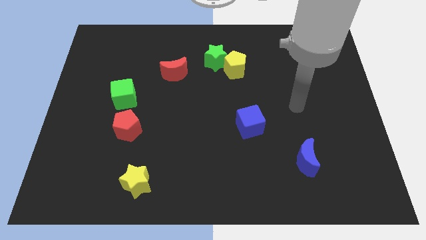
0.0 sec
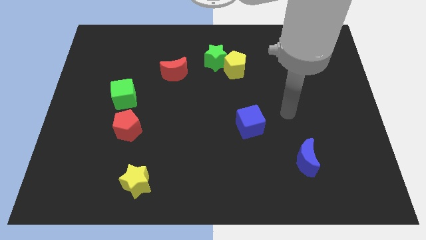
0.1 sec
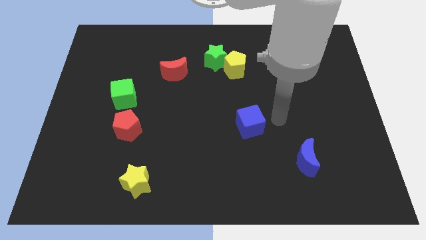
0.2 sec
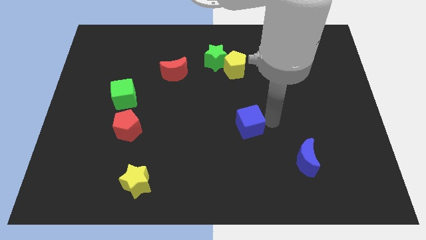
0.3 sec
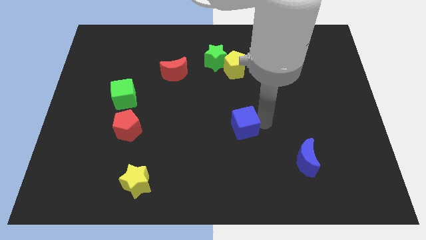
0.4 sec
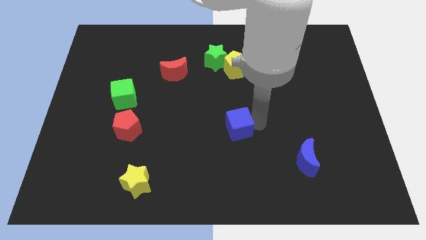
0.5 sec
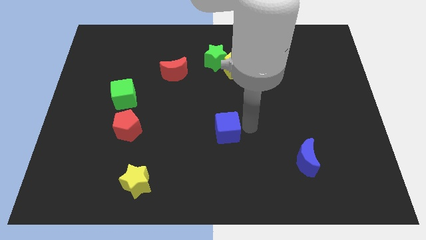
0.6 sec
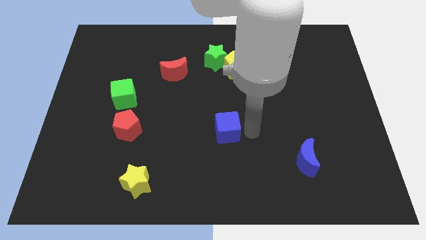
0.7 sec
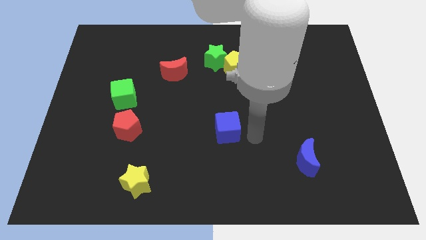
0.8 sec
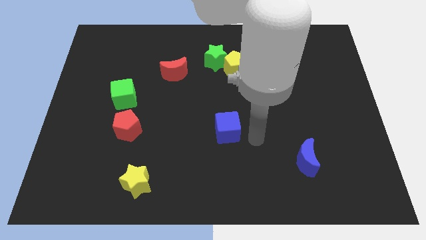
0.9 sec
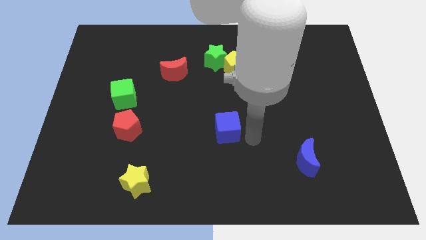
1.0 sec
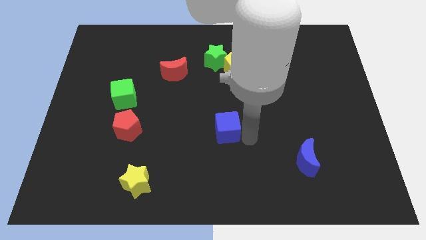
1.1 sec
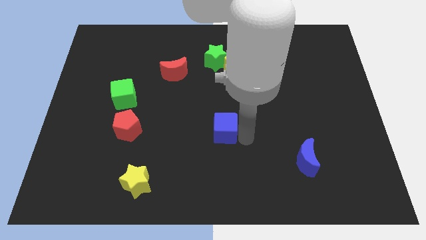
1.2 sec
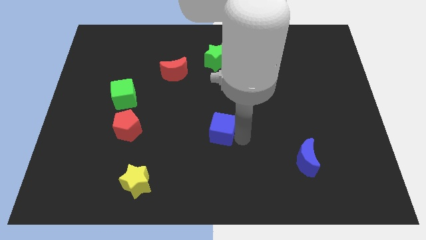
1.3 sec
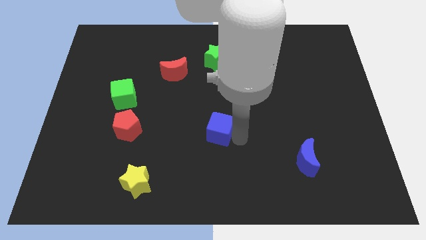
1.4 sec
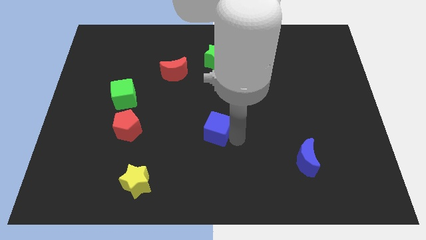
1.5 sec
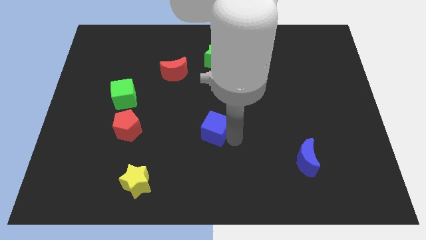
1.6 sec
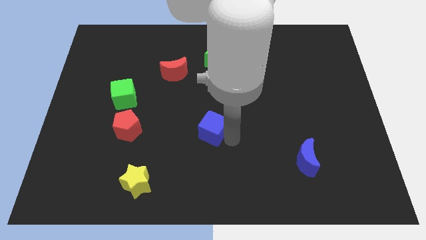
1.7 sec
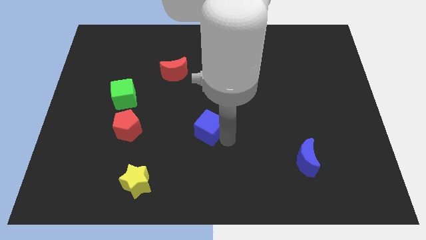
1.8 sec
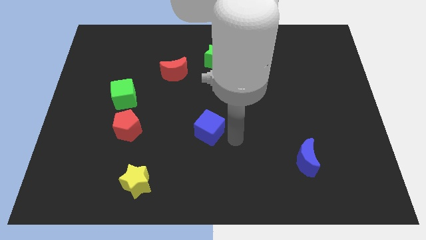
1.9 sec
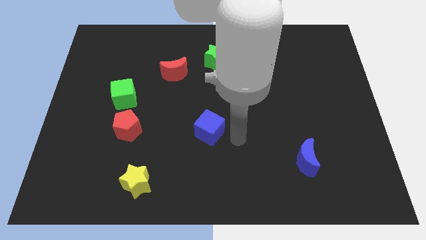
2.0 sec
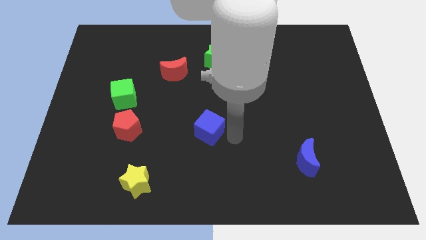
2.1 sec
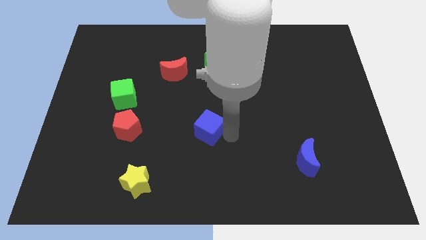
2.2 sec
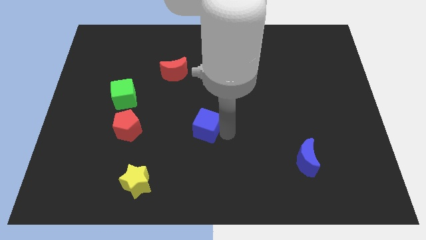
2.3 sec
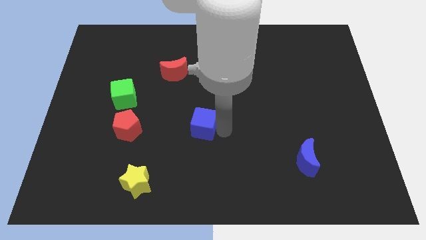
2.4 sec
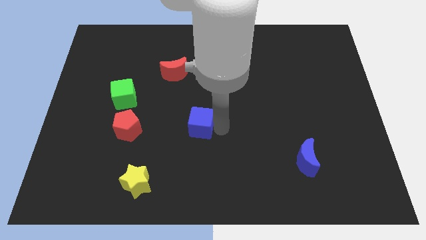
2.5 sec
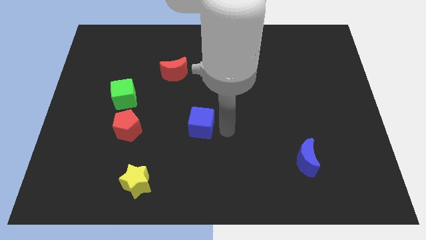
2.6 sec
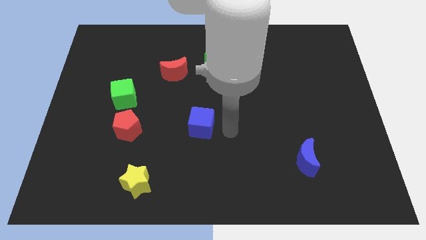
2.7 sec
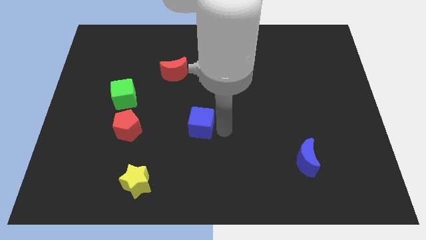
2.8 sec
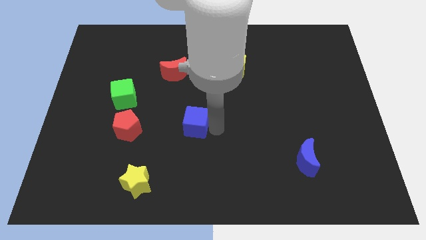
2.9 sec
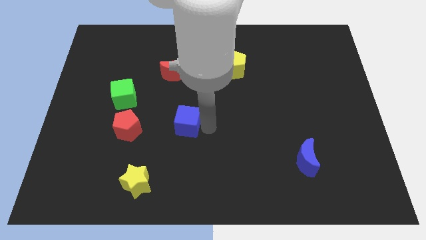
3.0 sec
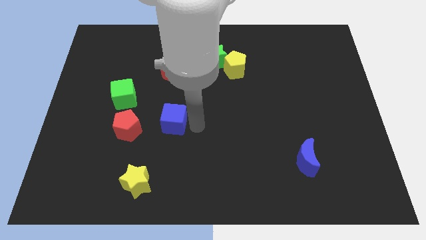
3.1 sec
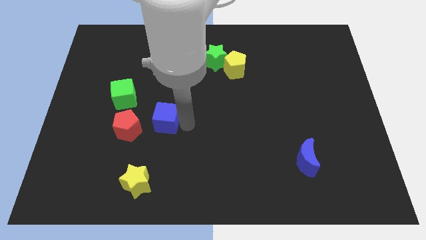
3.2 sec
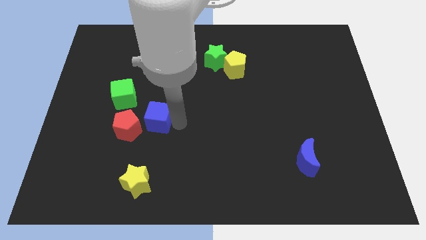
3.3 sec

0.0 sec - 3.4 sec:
move the blue cube left

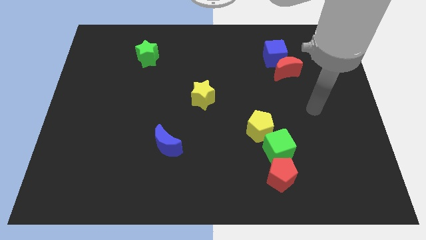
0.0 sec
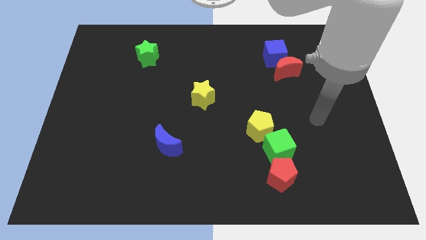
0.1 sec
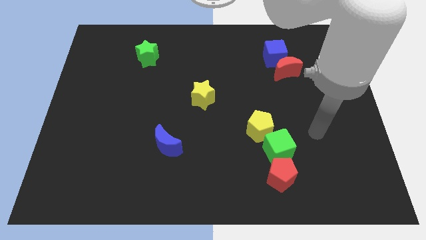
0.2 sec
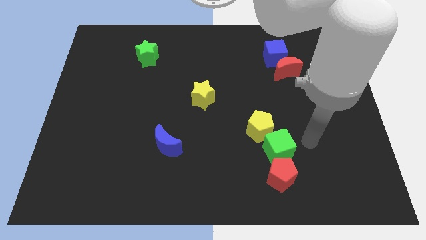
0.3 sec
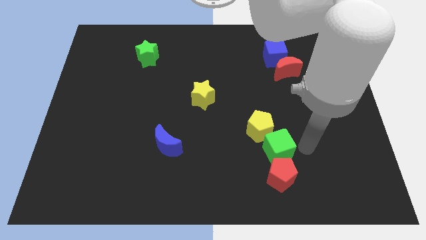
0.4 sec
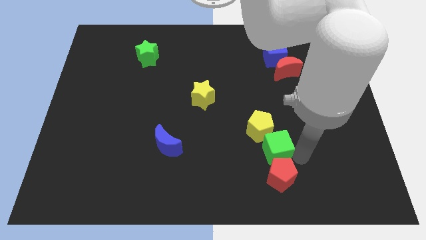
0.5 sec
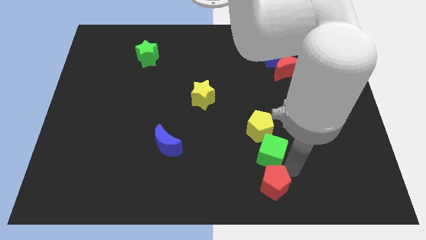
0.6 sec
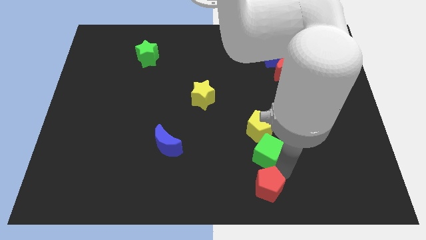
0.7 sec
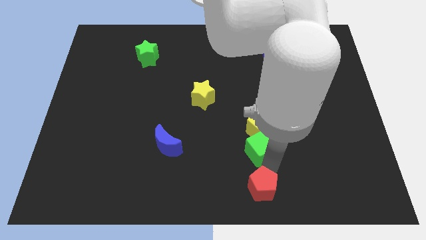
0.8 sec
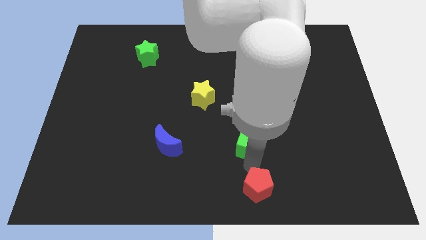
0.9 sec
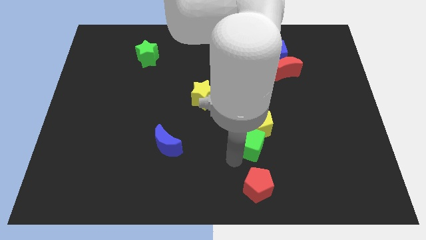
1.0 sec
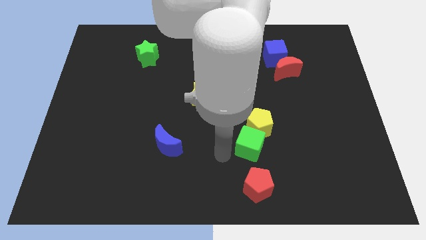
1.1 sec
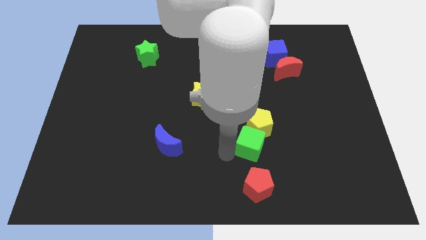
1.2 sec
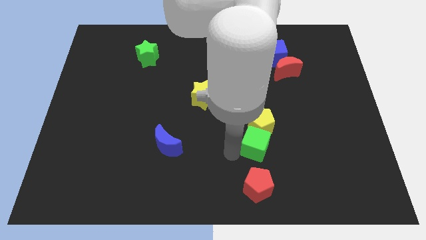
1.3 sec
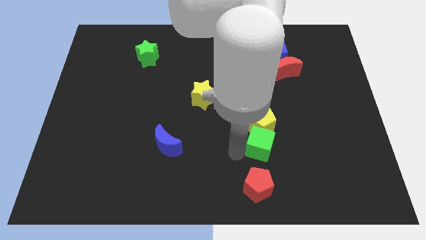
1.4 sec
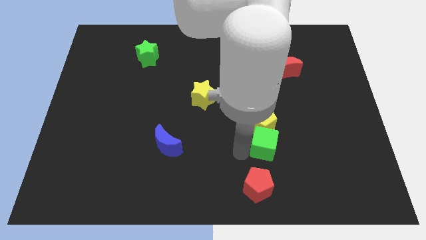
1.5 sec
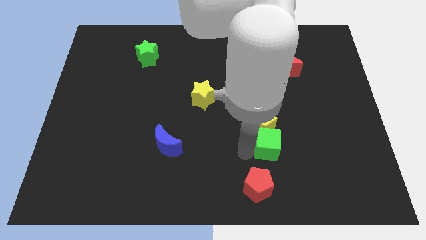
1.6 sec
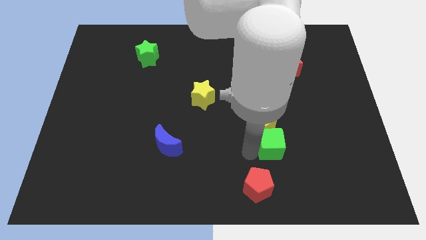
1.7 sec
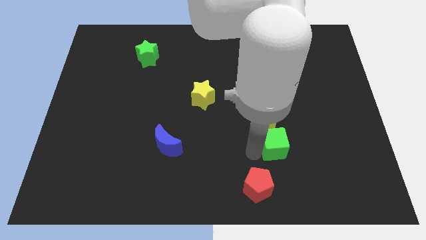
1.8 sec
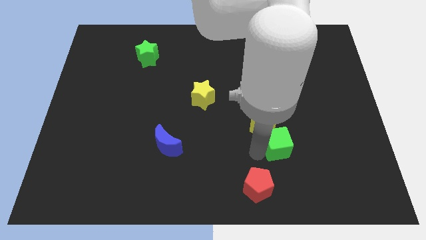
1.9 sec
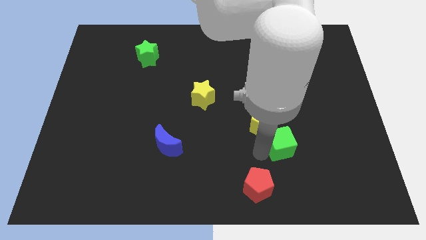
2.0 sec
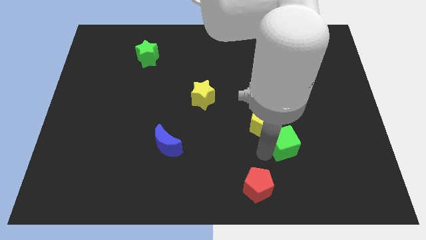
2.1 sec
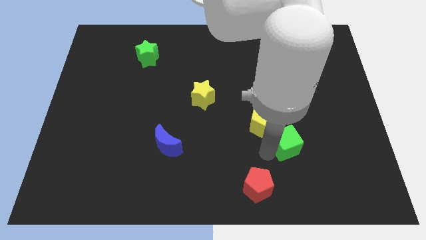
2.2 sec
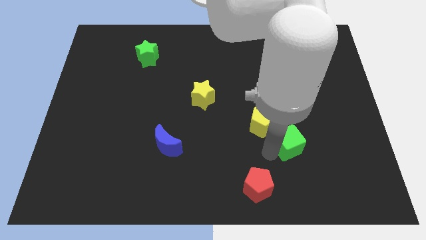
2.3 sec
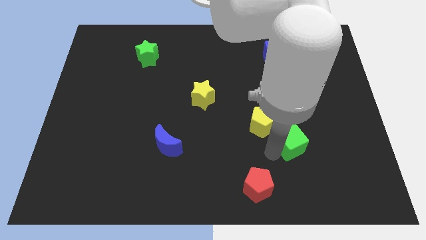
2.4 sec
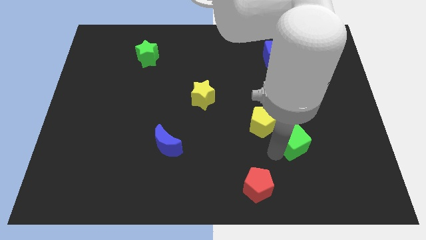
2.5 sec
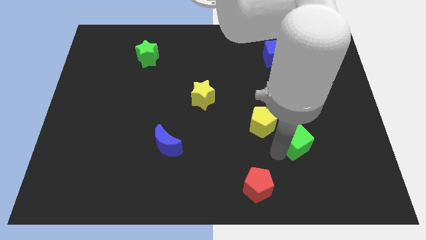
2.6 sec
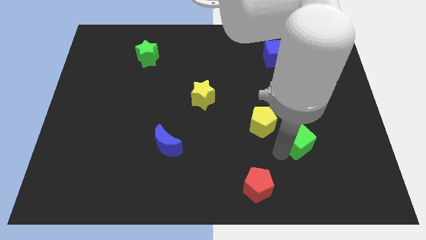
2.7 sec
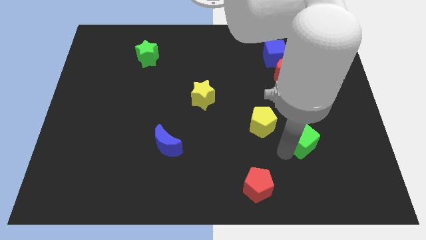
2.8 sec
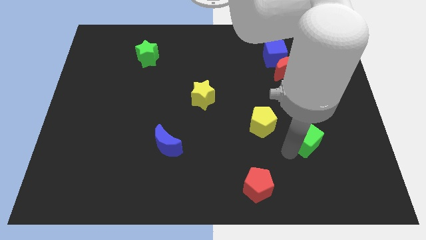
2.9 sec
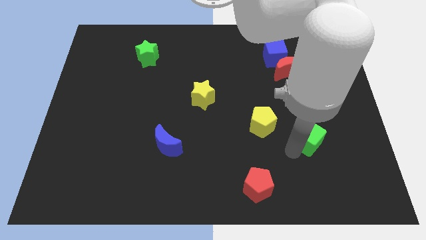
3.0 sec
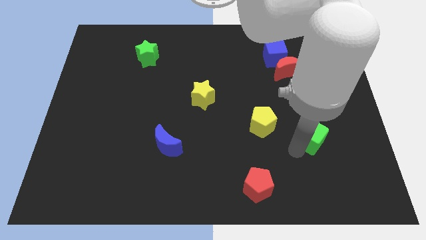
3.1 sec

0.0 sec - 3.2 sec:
move the green cube up and right diagonally a little

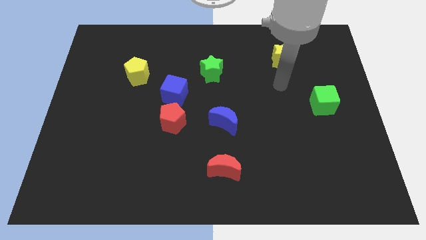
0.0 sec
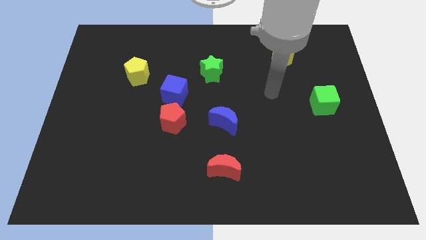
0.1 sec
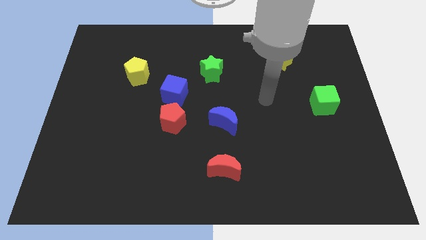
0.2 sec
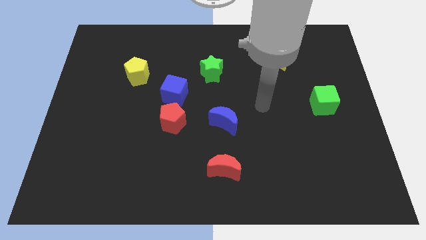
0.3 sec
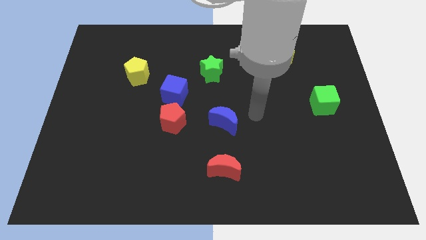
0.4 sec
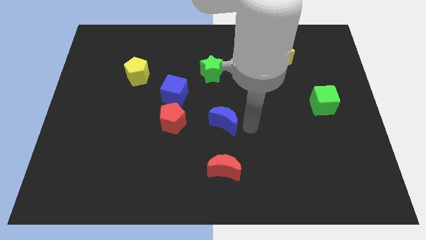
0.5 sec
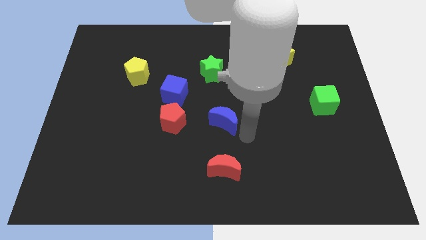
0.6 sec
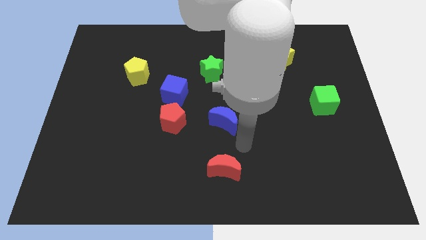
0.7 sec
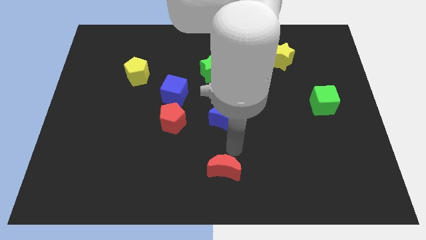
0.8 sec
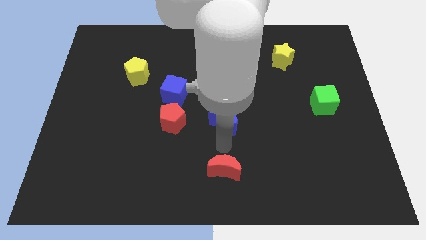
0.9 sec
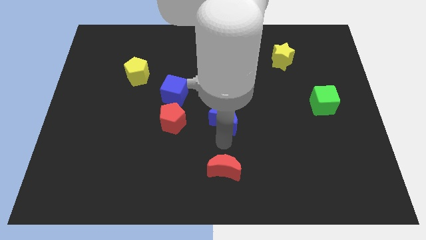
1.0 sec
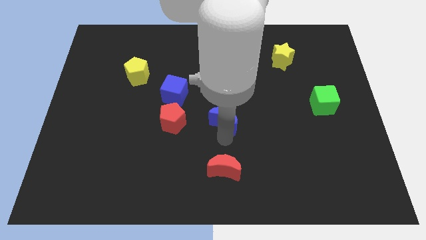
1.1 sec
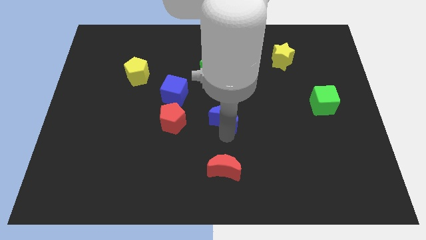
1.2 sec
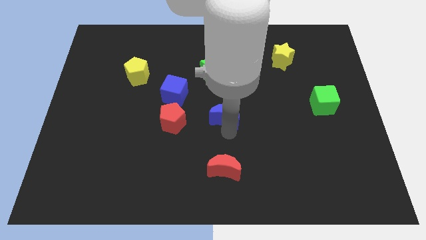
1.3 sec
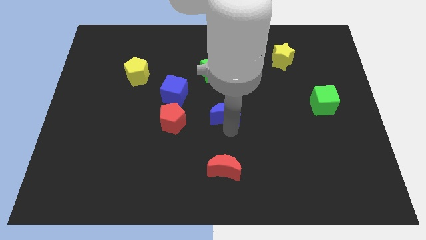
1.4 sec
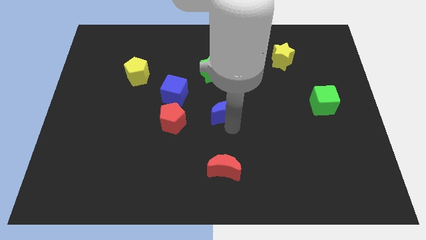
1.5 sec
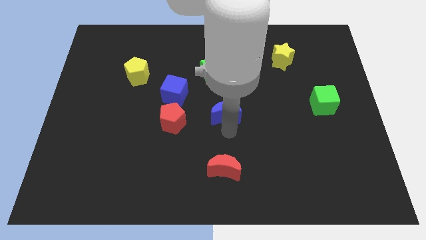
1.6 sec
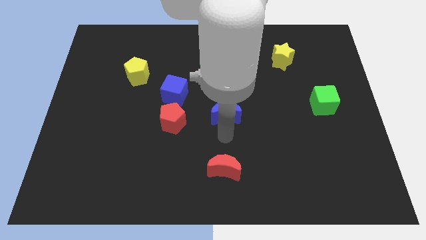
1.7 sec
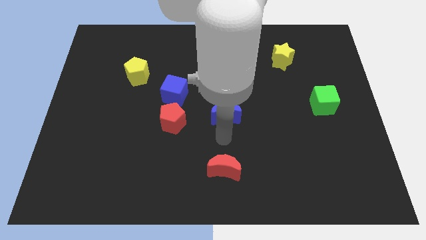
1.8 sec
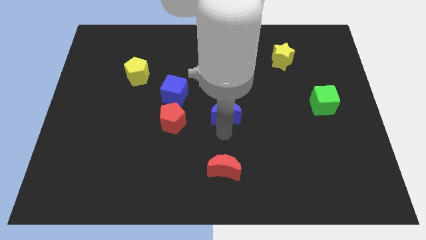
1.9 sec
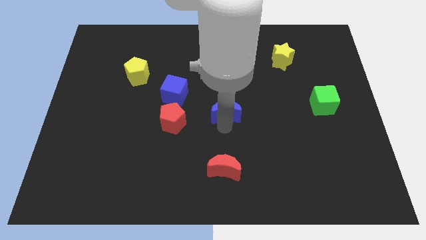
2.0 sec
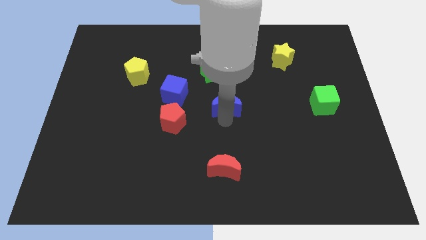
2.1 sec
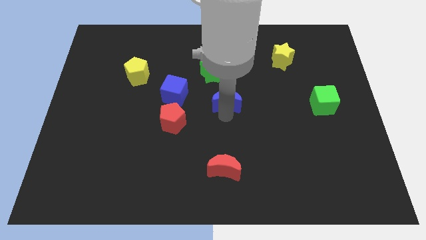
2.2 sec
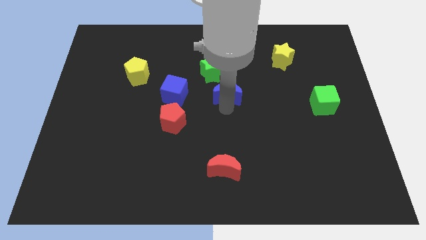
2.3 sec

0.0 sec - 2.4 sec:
move the blue moon upwards a little
